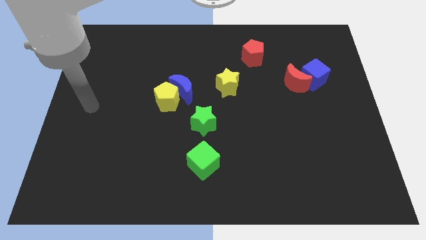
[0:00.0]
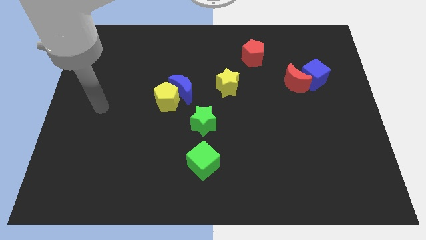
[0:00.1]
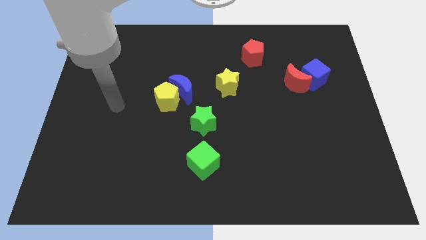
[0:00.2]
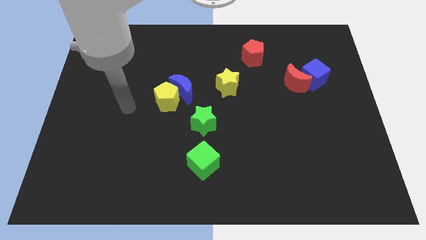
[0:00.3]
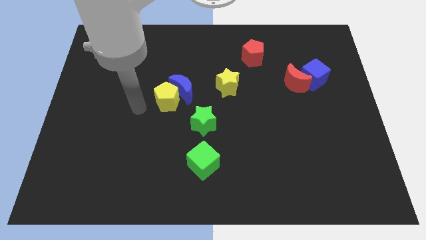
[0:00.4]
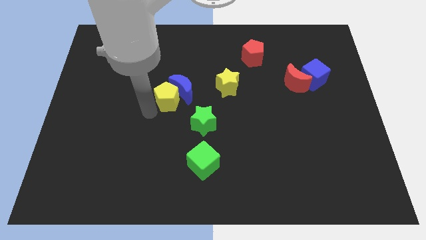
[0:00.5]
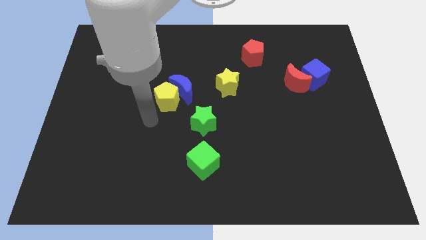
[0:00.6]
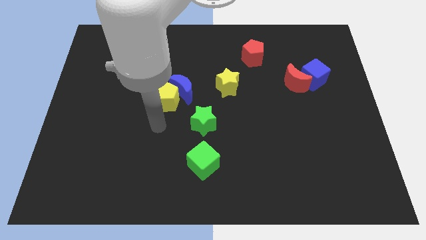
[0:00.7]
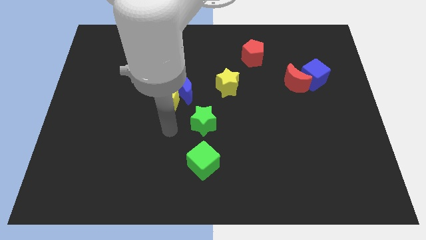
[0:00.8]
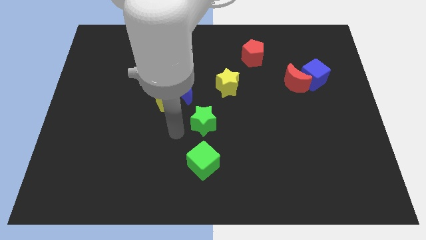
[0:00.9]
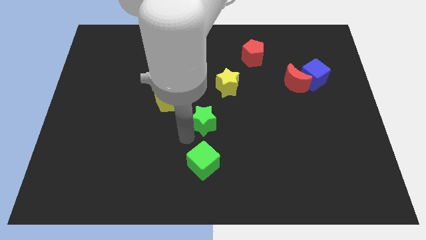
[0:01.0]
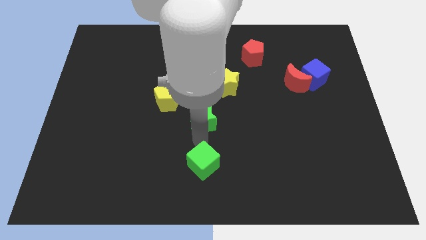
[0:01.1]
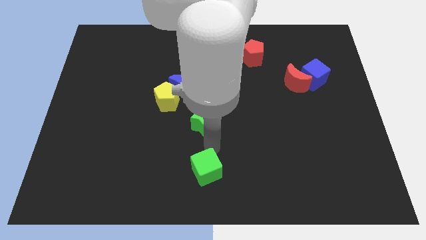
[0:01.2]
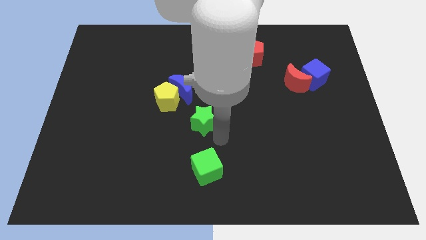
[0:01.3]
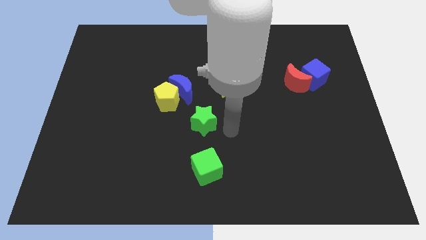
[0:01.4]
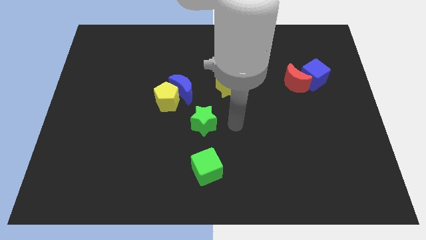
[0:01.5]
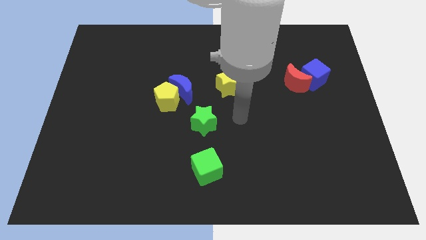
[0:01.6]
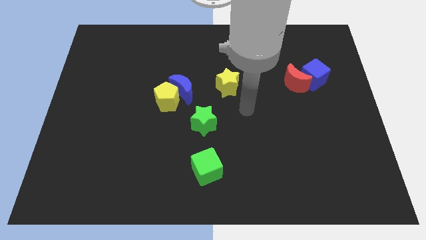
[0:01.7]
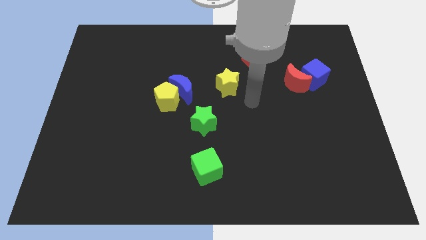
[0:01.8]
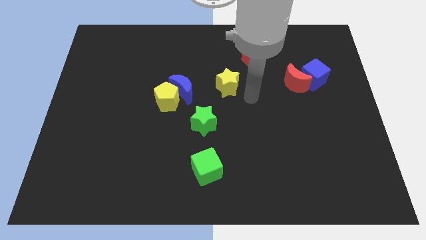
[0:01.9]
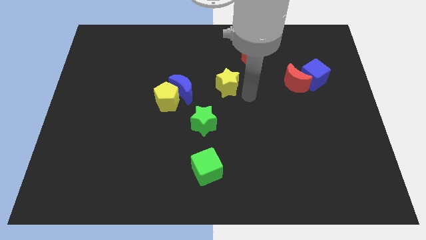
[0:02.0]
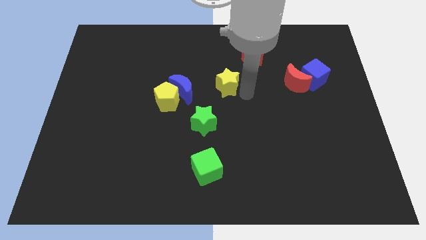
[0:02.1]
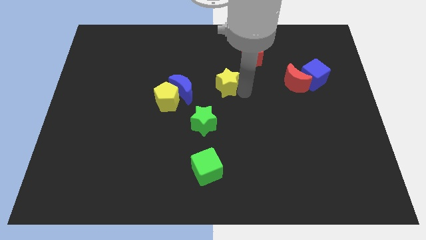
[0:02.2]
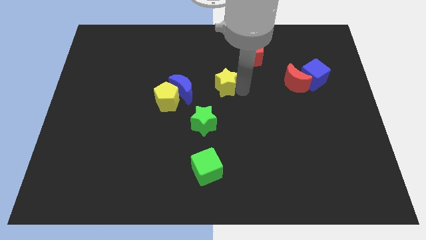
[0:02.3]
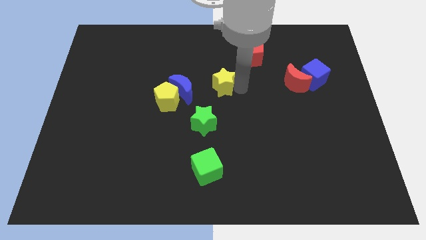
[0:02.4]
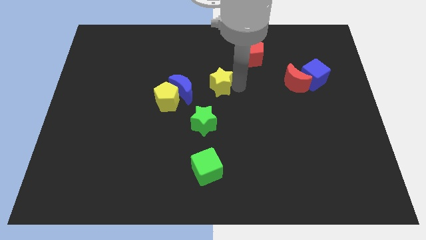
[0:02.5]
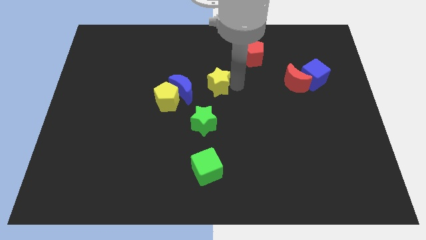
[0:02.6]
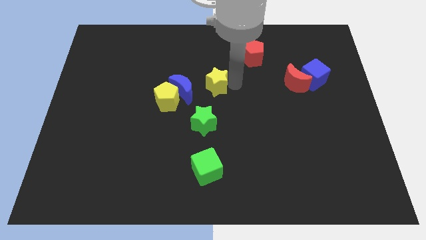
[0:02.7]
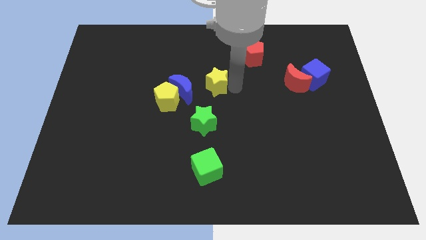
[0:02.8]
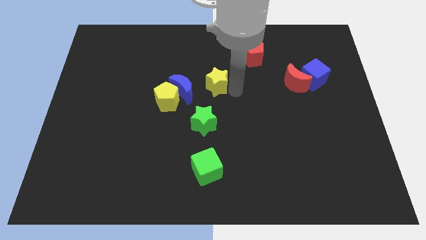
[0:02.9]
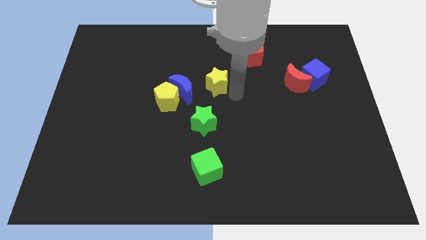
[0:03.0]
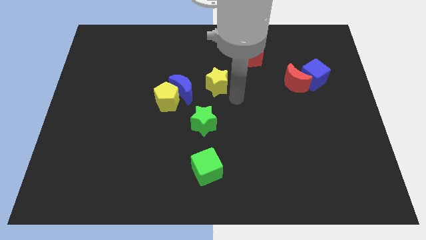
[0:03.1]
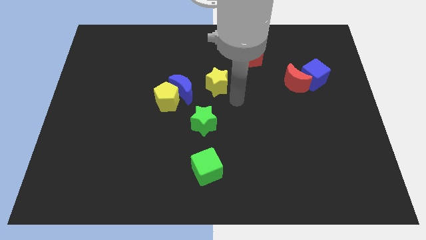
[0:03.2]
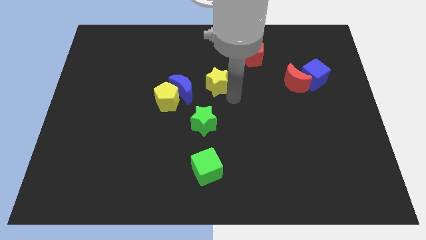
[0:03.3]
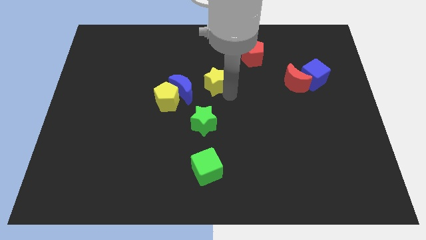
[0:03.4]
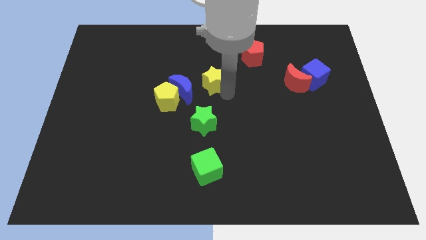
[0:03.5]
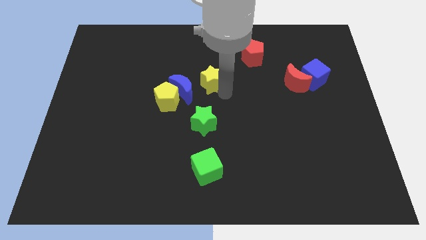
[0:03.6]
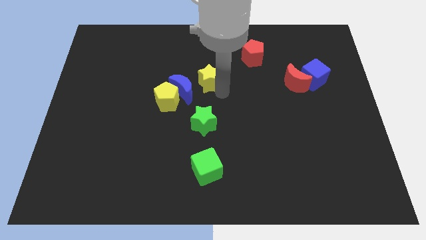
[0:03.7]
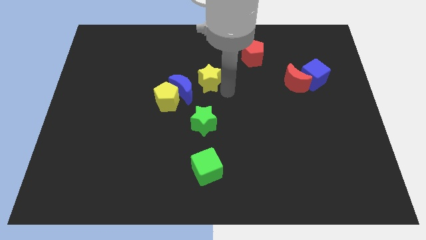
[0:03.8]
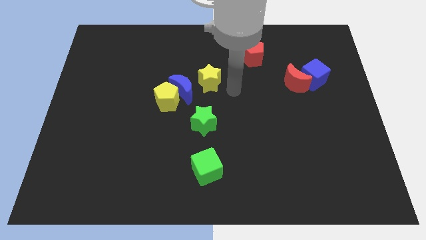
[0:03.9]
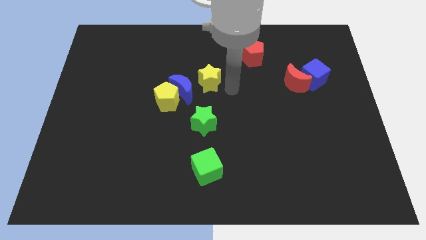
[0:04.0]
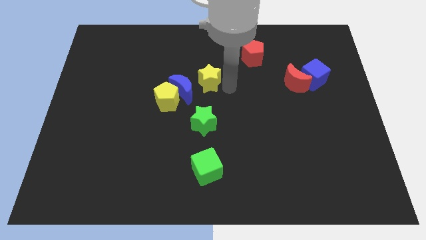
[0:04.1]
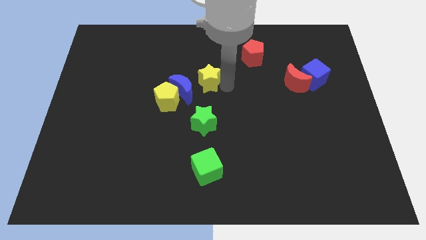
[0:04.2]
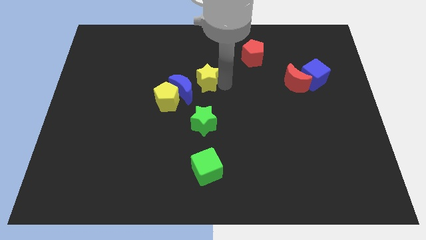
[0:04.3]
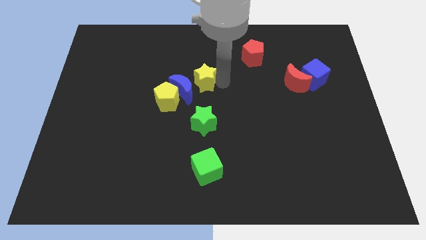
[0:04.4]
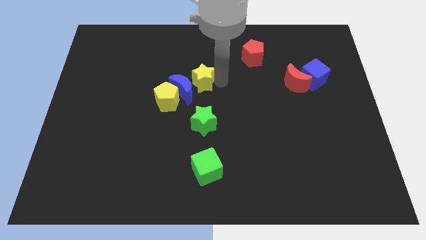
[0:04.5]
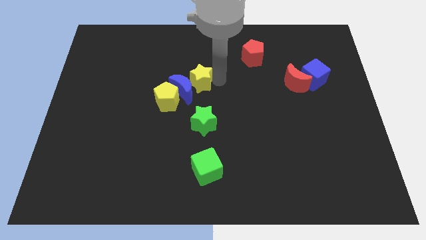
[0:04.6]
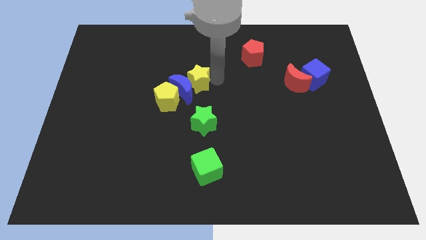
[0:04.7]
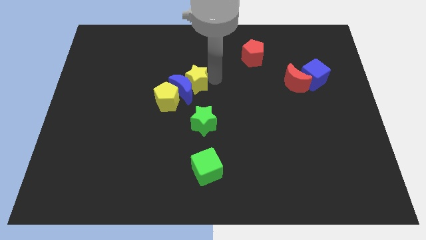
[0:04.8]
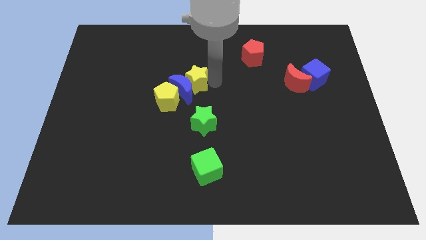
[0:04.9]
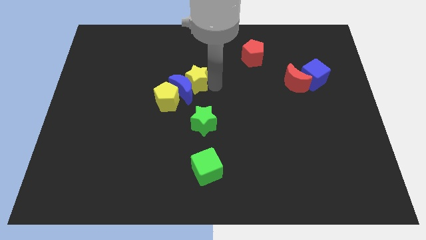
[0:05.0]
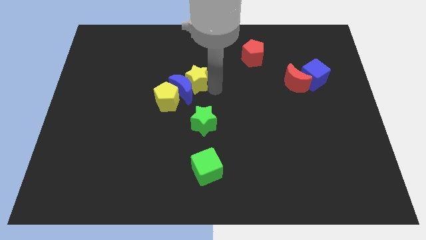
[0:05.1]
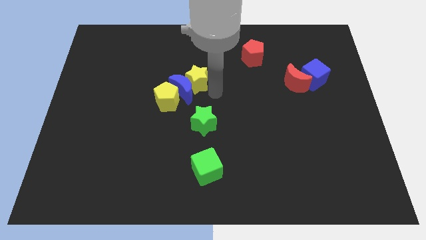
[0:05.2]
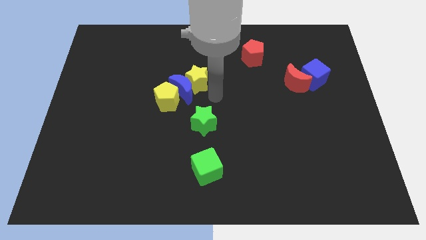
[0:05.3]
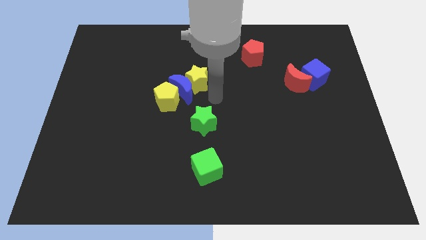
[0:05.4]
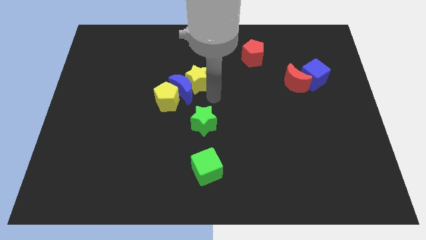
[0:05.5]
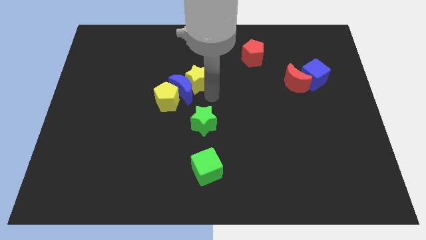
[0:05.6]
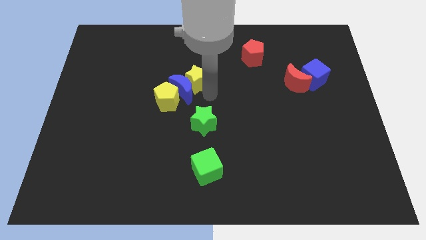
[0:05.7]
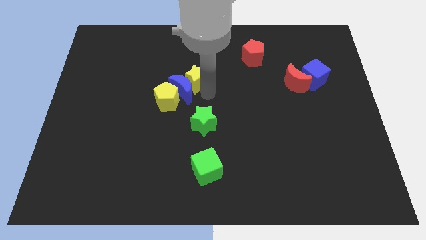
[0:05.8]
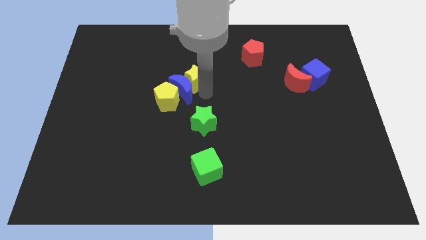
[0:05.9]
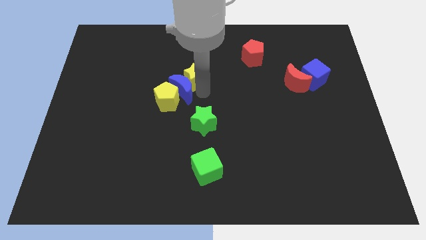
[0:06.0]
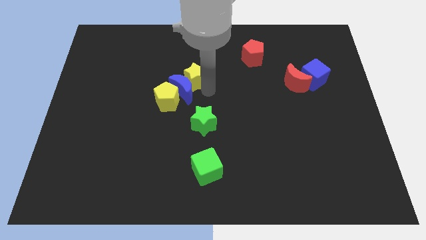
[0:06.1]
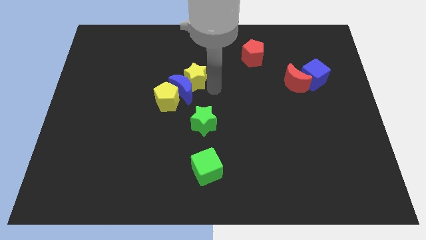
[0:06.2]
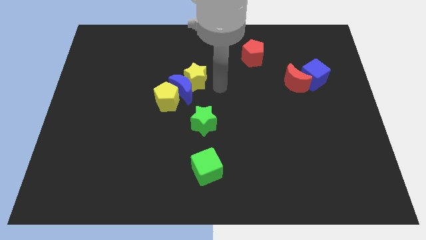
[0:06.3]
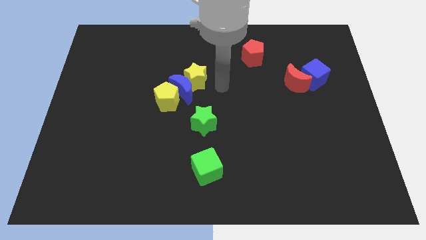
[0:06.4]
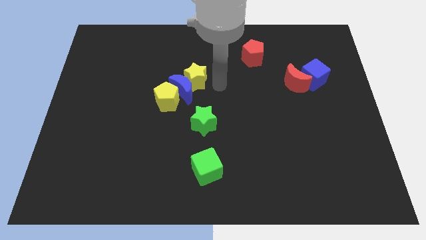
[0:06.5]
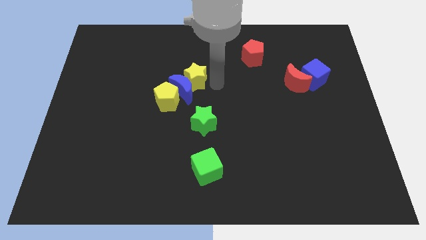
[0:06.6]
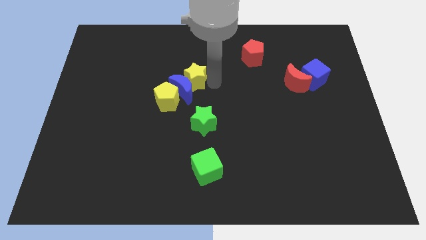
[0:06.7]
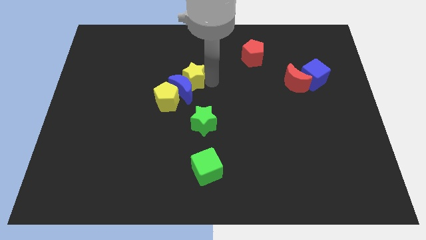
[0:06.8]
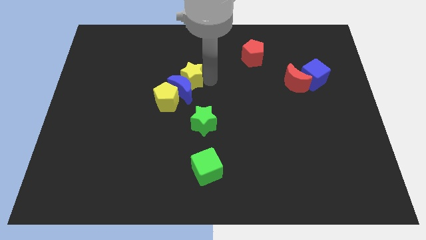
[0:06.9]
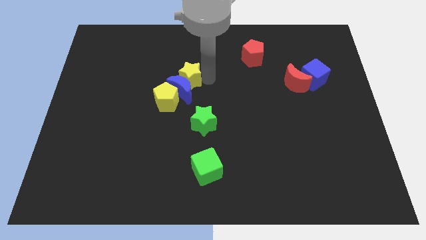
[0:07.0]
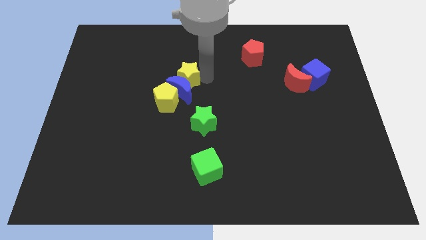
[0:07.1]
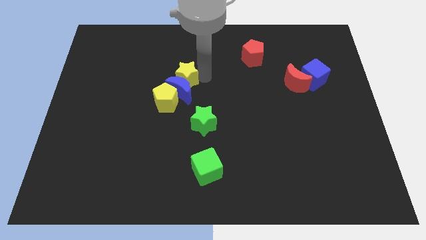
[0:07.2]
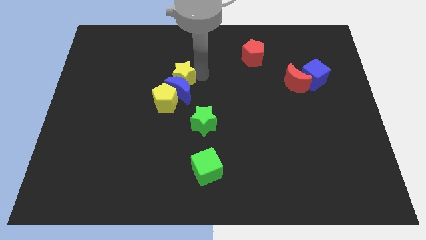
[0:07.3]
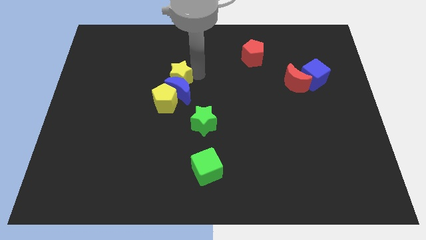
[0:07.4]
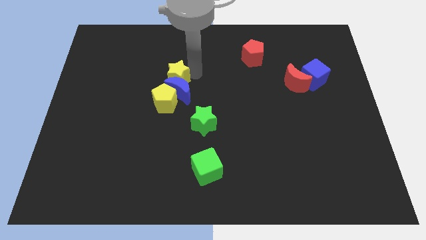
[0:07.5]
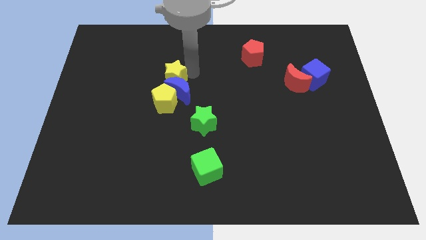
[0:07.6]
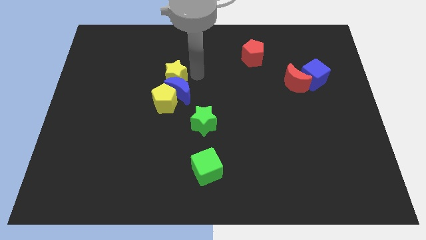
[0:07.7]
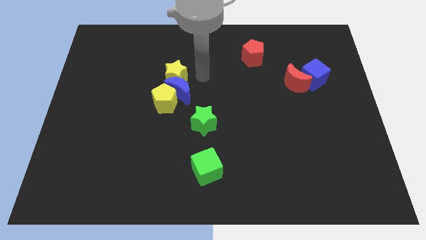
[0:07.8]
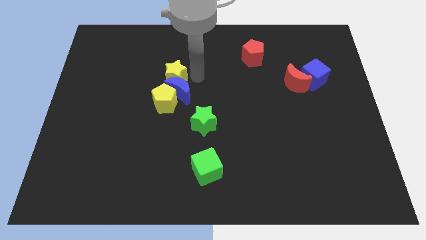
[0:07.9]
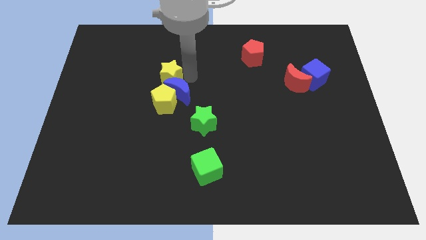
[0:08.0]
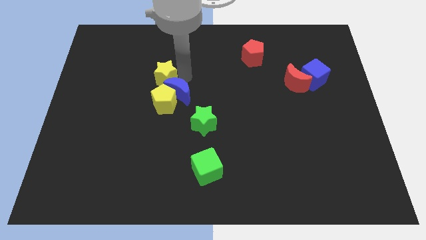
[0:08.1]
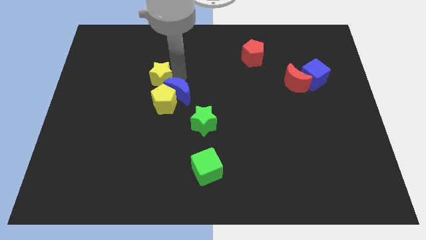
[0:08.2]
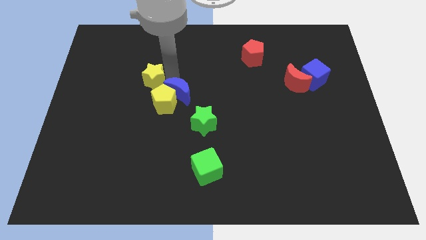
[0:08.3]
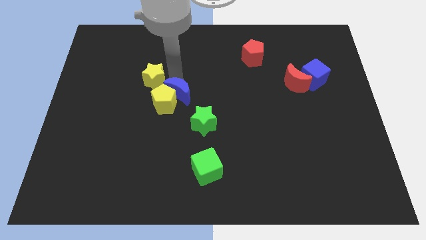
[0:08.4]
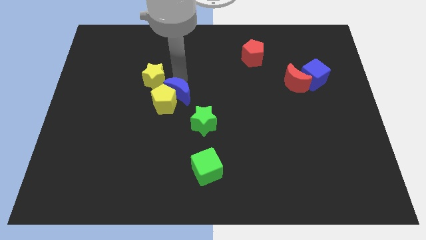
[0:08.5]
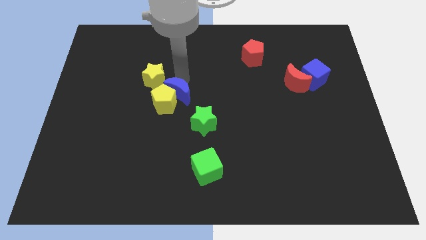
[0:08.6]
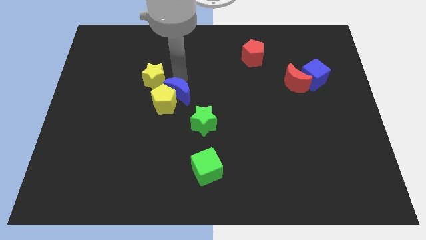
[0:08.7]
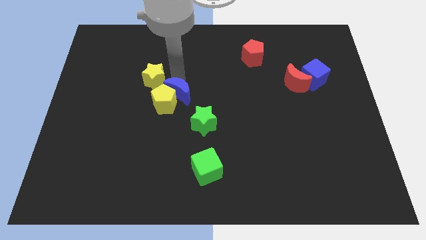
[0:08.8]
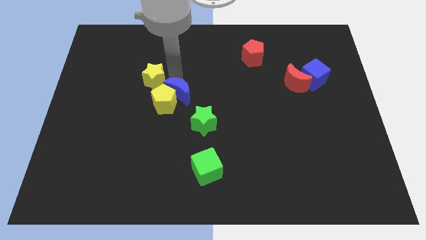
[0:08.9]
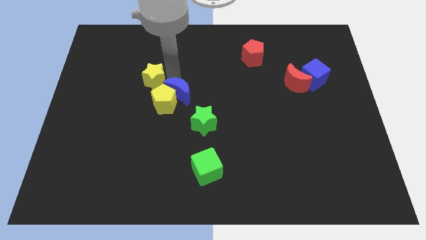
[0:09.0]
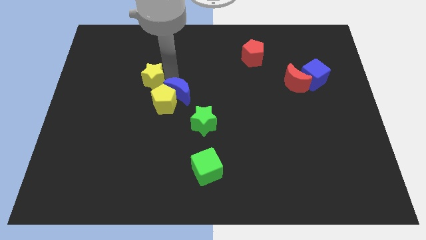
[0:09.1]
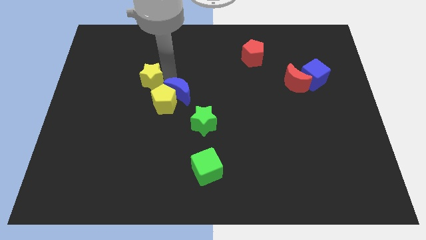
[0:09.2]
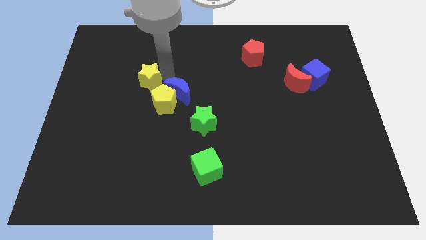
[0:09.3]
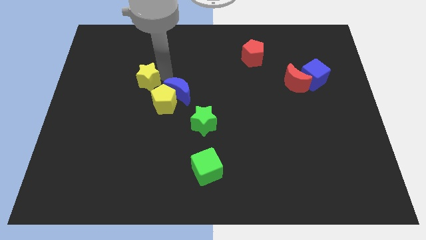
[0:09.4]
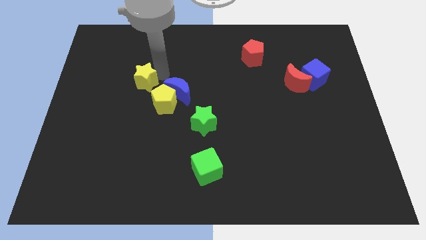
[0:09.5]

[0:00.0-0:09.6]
move the yellow star left
